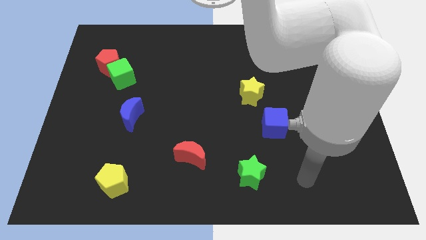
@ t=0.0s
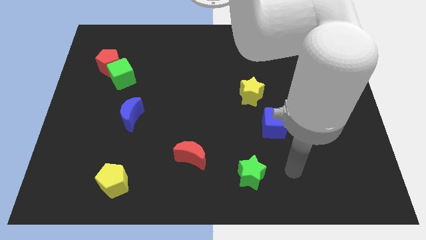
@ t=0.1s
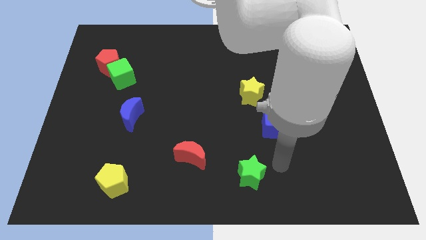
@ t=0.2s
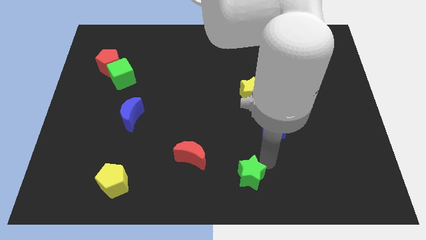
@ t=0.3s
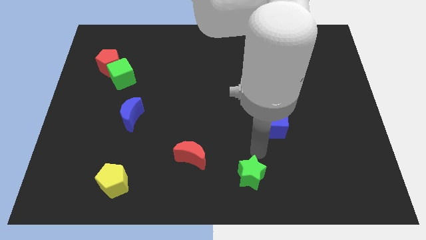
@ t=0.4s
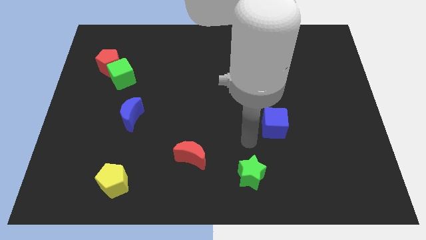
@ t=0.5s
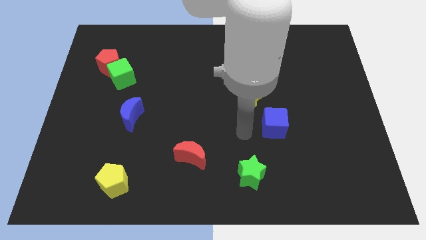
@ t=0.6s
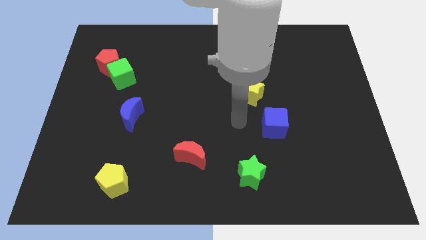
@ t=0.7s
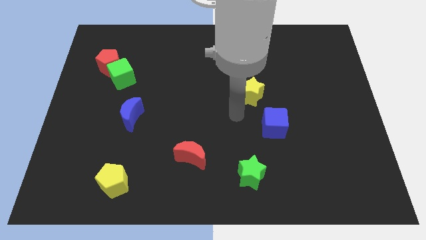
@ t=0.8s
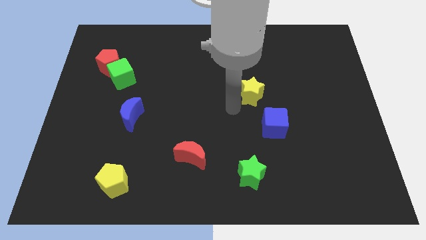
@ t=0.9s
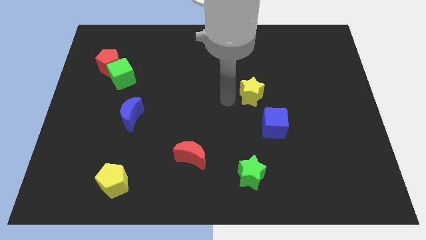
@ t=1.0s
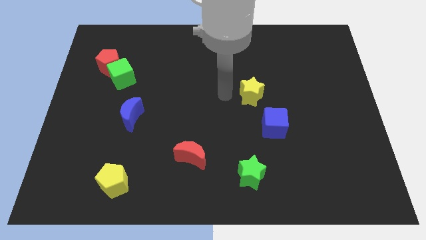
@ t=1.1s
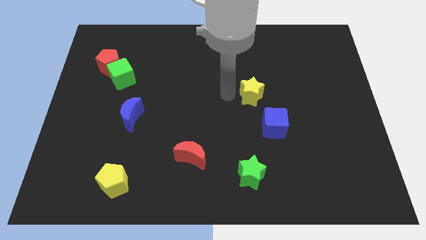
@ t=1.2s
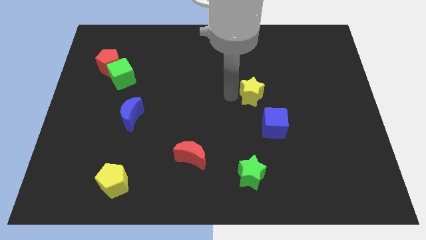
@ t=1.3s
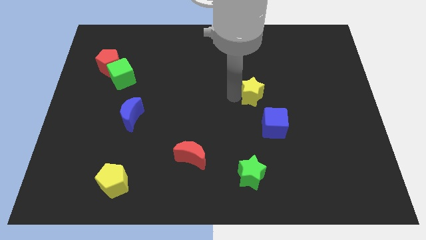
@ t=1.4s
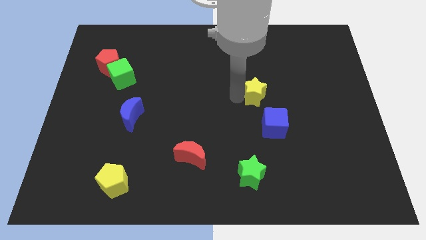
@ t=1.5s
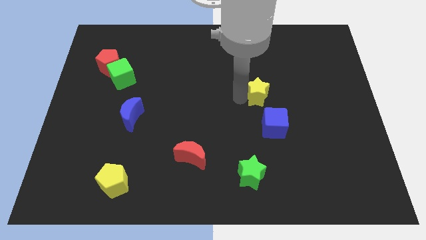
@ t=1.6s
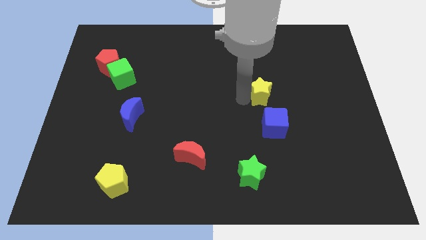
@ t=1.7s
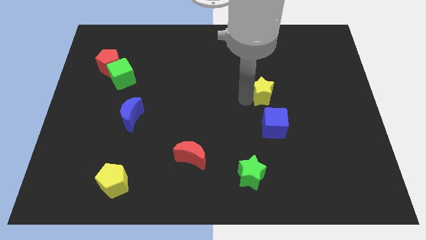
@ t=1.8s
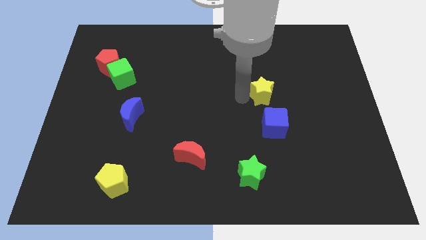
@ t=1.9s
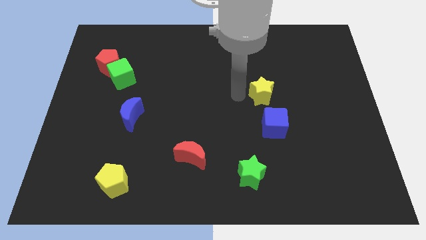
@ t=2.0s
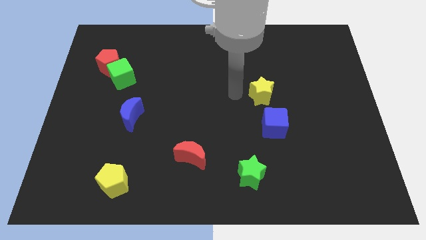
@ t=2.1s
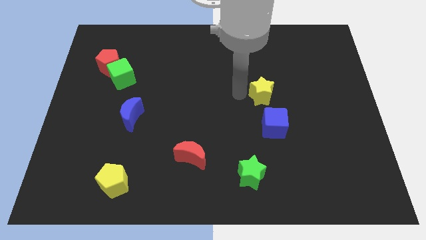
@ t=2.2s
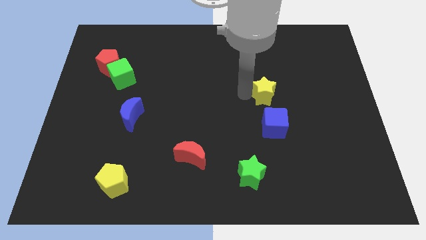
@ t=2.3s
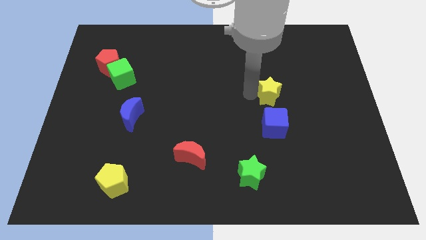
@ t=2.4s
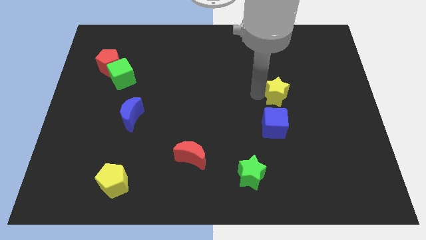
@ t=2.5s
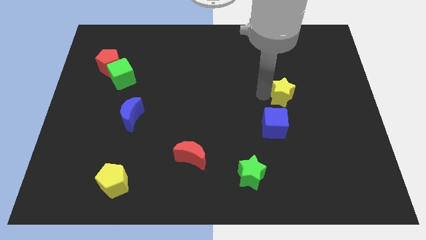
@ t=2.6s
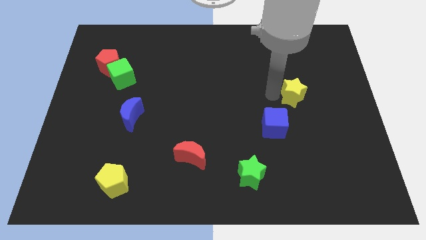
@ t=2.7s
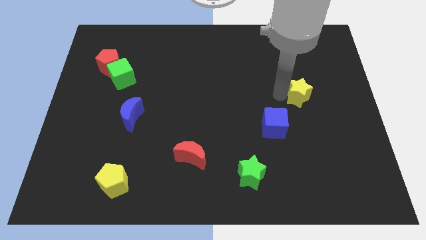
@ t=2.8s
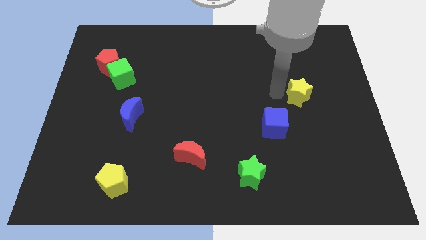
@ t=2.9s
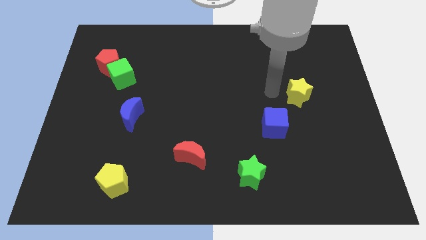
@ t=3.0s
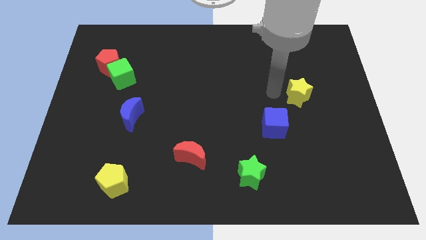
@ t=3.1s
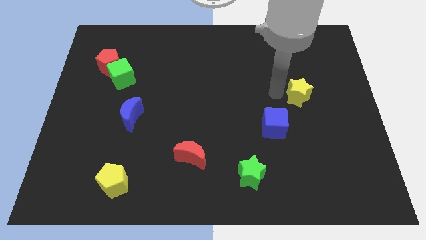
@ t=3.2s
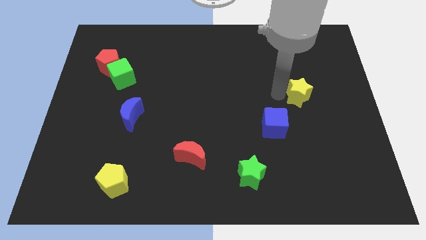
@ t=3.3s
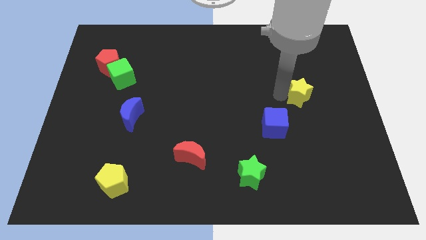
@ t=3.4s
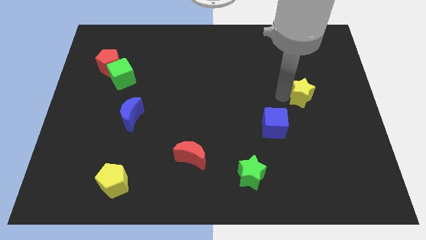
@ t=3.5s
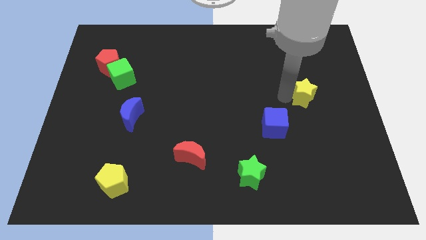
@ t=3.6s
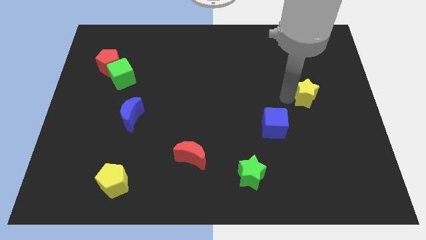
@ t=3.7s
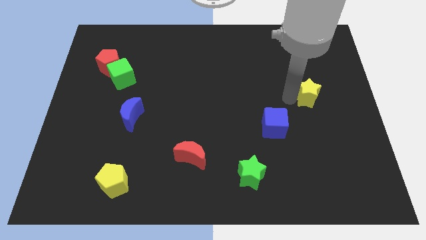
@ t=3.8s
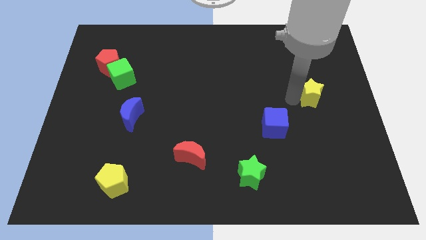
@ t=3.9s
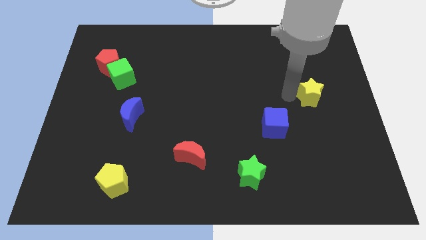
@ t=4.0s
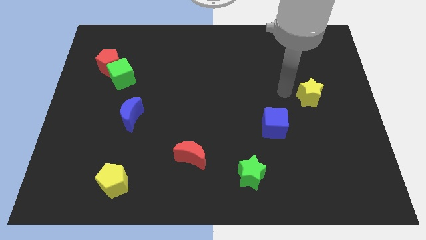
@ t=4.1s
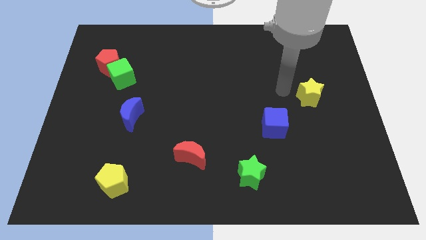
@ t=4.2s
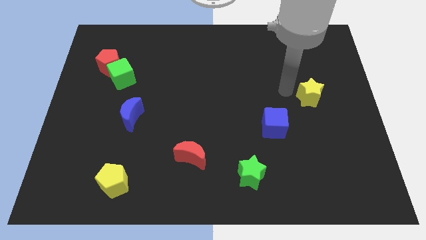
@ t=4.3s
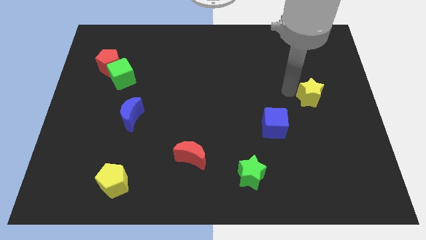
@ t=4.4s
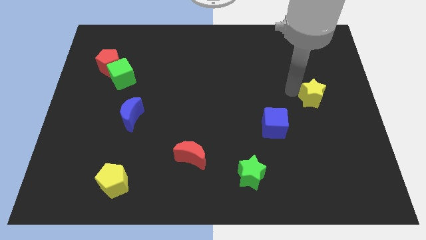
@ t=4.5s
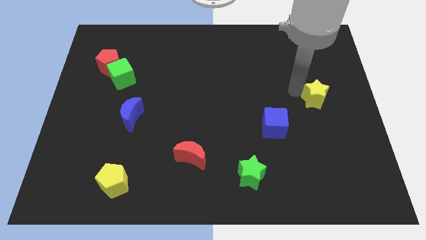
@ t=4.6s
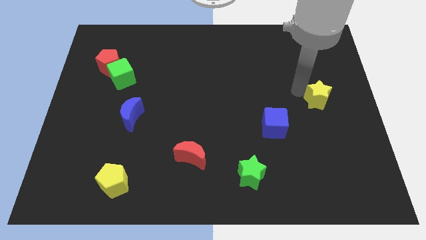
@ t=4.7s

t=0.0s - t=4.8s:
put the yellow star to the center right

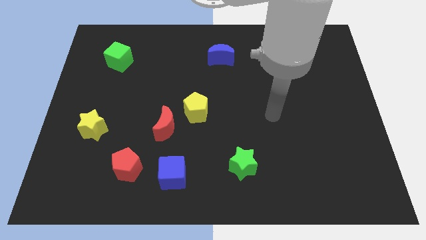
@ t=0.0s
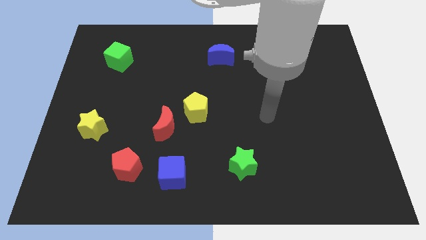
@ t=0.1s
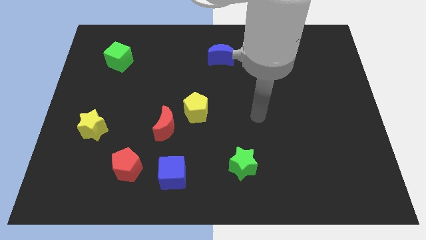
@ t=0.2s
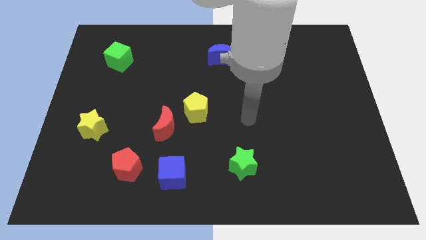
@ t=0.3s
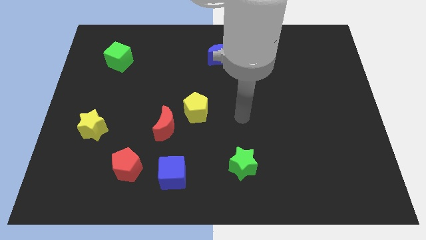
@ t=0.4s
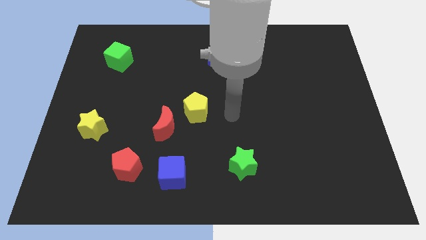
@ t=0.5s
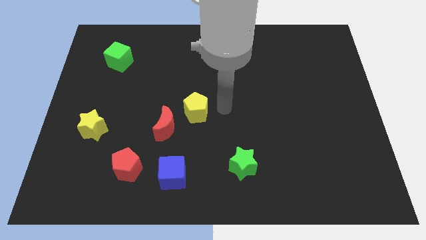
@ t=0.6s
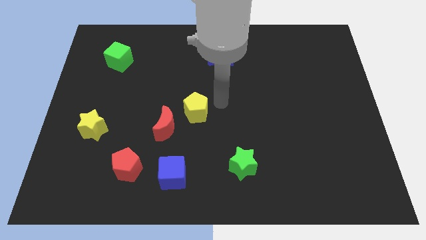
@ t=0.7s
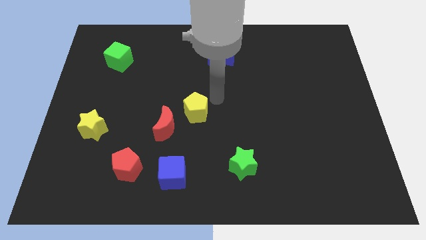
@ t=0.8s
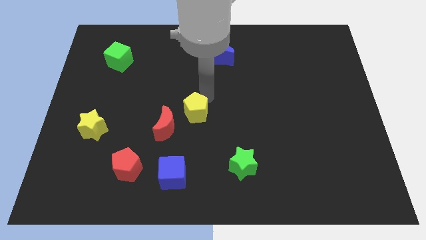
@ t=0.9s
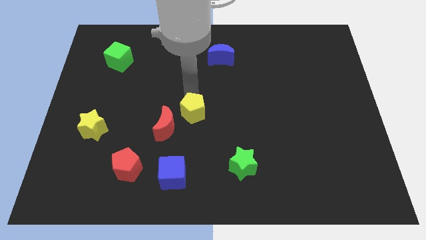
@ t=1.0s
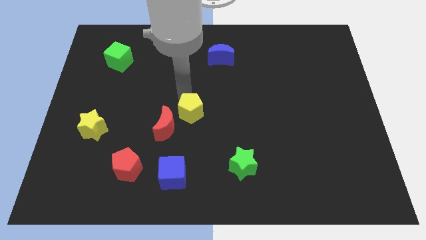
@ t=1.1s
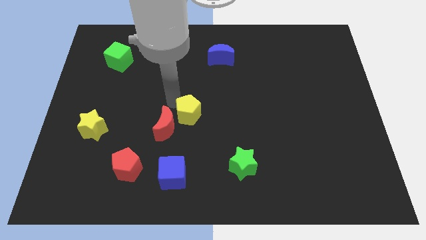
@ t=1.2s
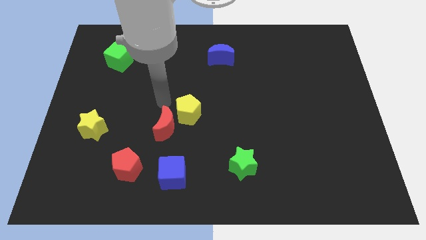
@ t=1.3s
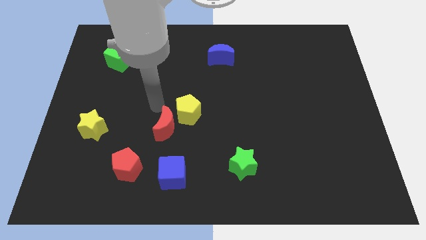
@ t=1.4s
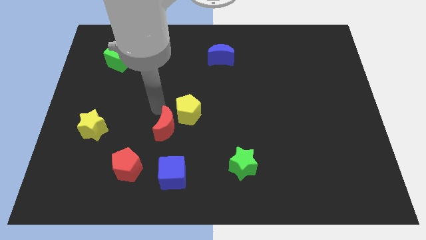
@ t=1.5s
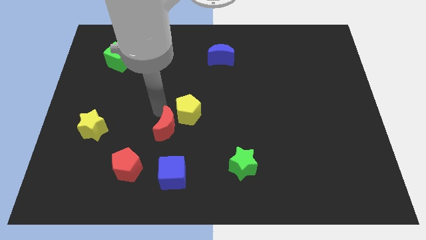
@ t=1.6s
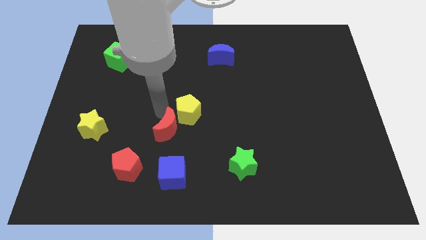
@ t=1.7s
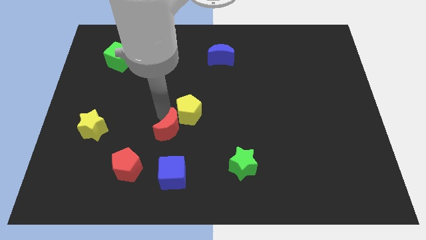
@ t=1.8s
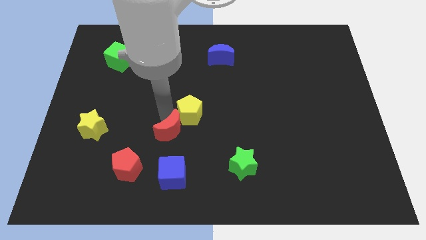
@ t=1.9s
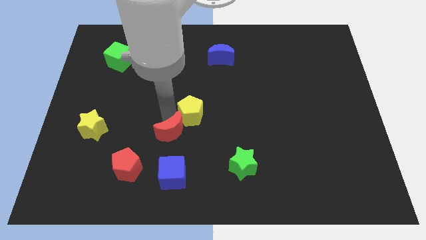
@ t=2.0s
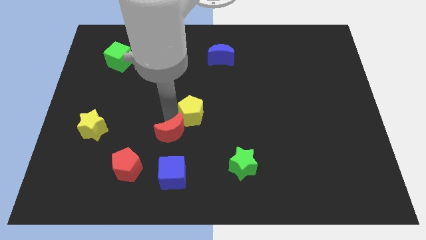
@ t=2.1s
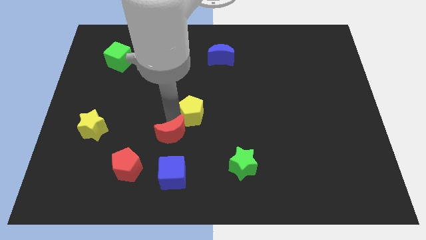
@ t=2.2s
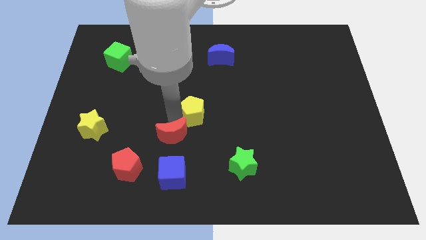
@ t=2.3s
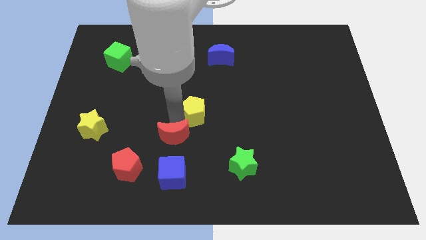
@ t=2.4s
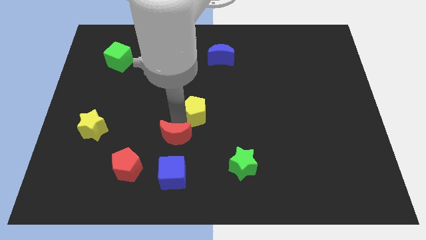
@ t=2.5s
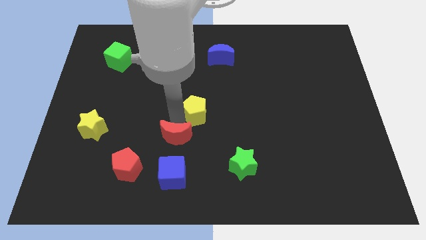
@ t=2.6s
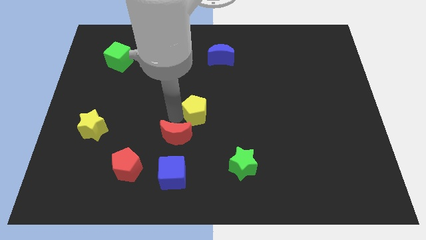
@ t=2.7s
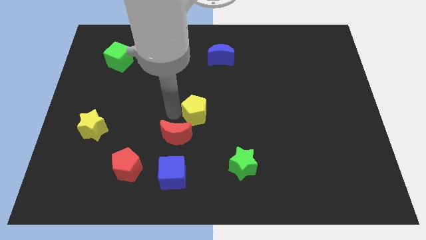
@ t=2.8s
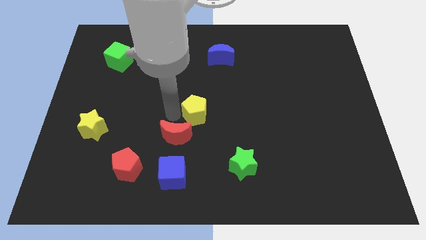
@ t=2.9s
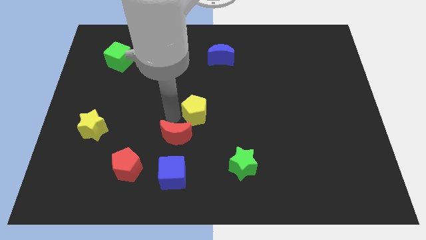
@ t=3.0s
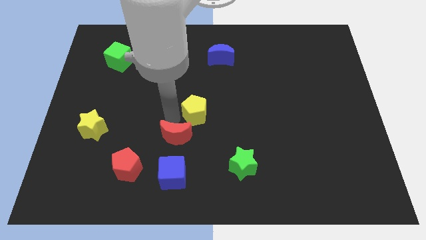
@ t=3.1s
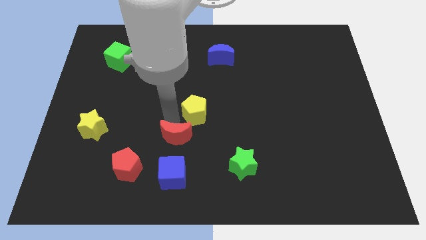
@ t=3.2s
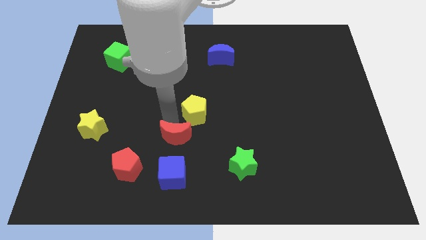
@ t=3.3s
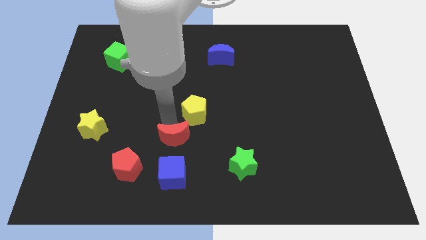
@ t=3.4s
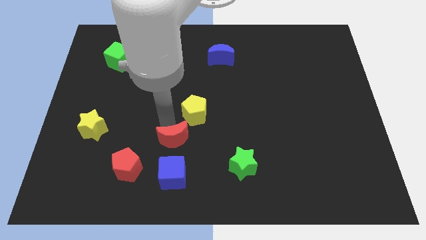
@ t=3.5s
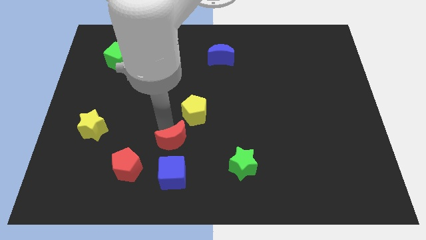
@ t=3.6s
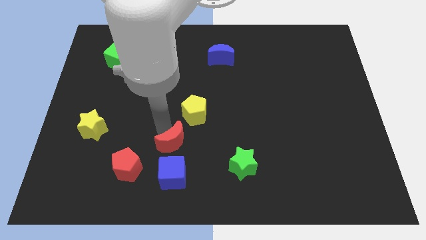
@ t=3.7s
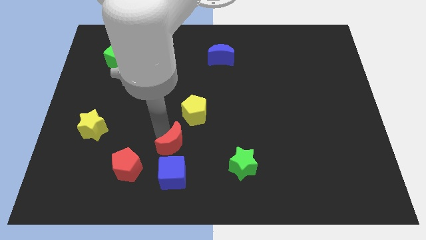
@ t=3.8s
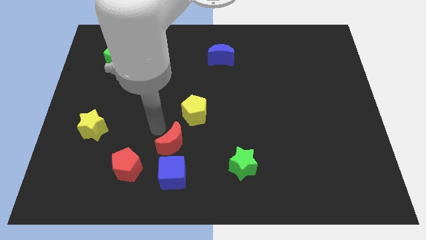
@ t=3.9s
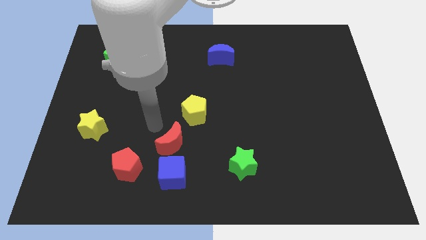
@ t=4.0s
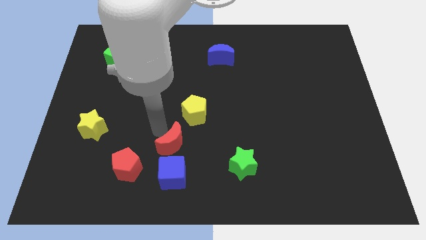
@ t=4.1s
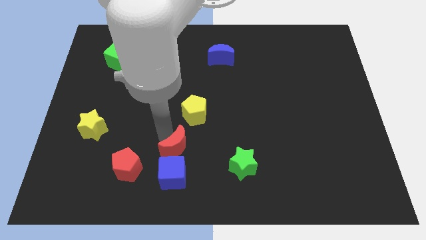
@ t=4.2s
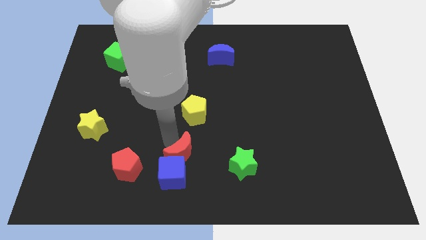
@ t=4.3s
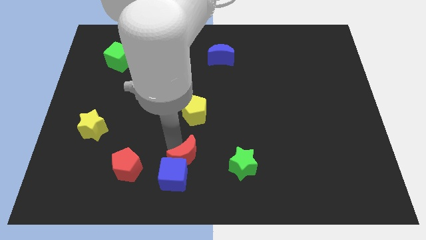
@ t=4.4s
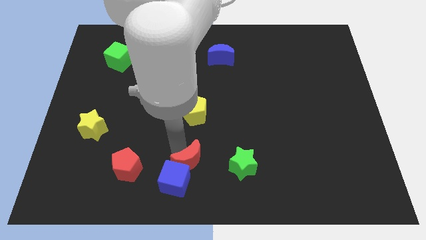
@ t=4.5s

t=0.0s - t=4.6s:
slide the red moon to the bottom side
